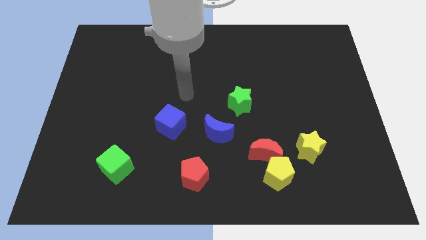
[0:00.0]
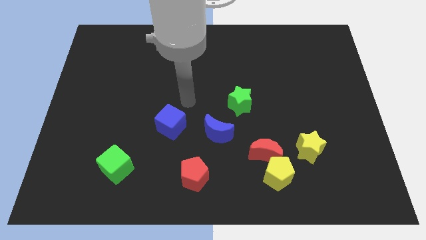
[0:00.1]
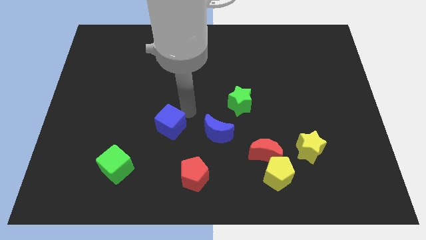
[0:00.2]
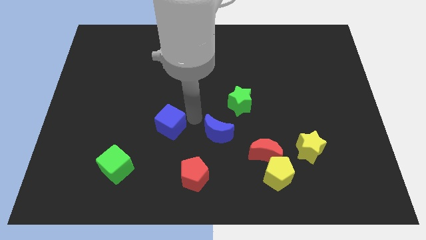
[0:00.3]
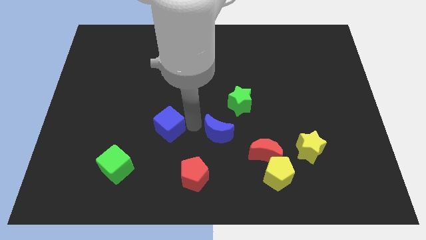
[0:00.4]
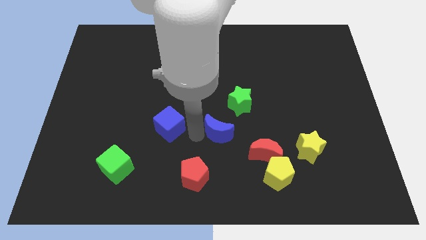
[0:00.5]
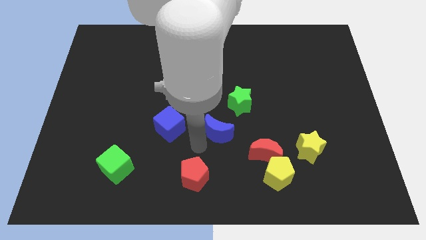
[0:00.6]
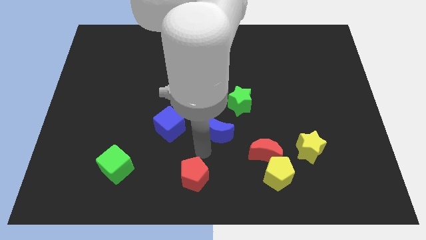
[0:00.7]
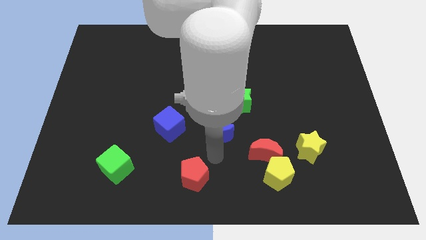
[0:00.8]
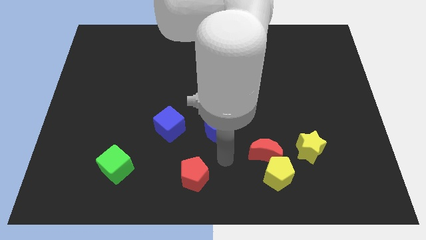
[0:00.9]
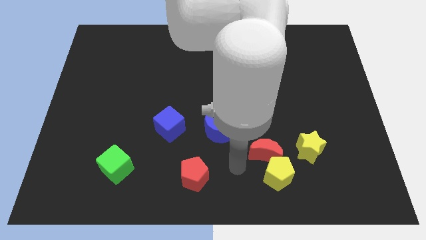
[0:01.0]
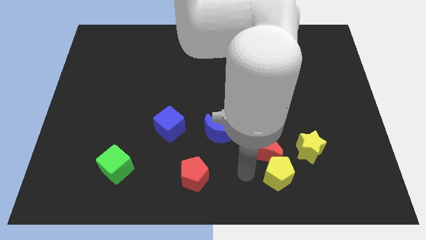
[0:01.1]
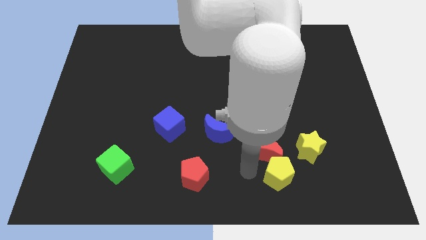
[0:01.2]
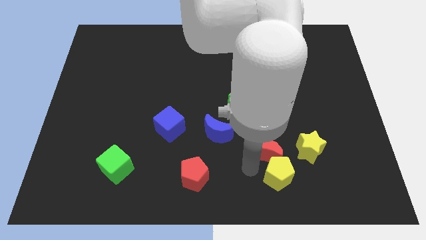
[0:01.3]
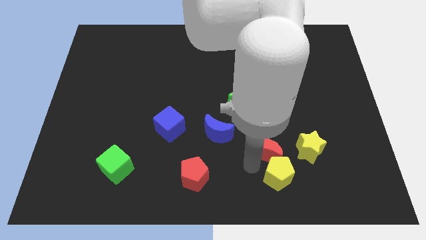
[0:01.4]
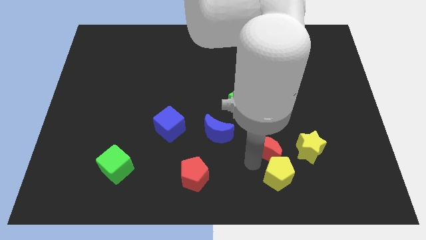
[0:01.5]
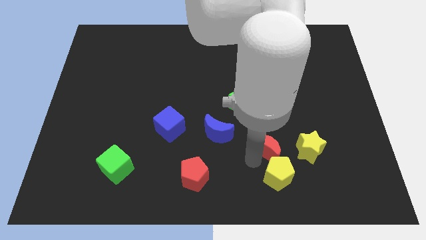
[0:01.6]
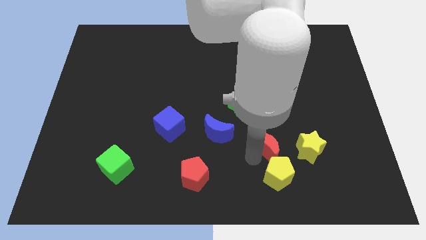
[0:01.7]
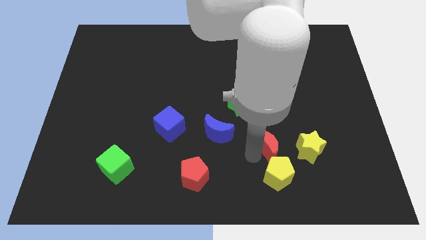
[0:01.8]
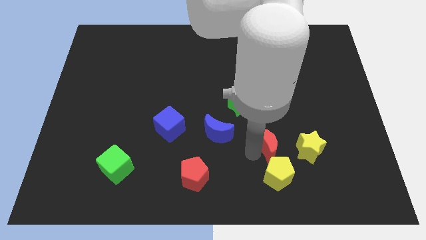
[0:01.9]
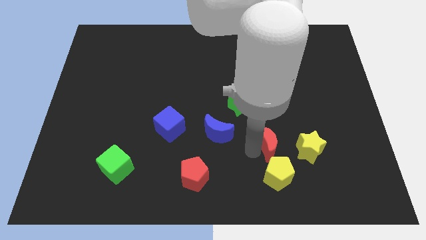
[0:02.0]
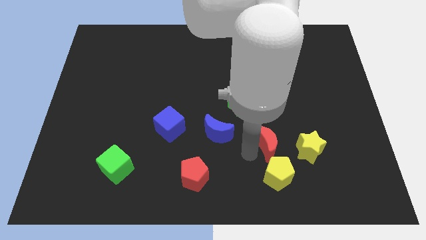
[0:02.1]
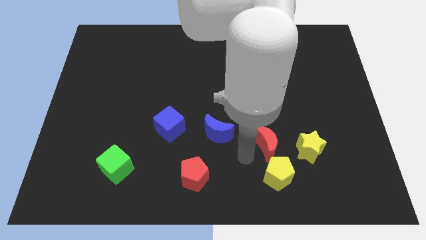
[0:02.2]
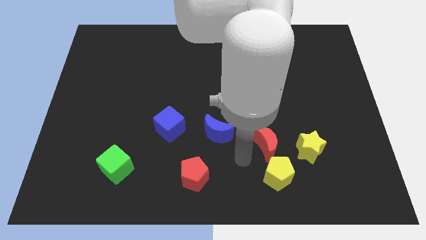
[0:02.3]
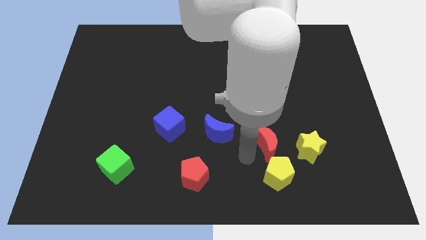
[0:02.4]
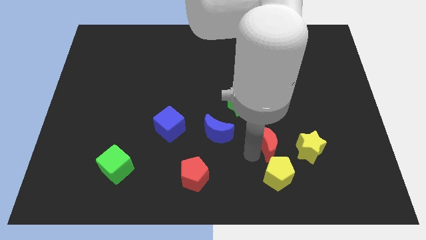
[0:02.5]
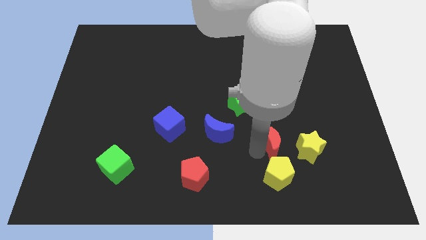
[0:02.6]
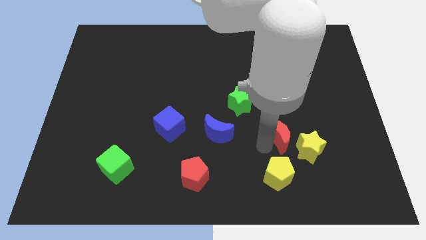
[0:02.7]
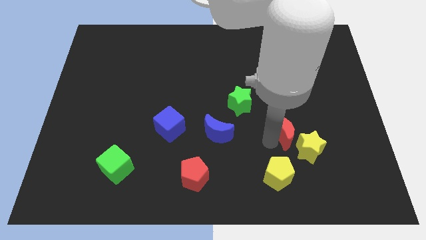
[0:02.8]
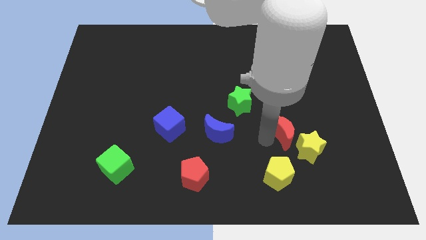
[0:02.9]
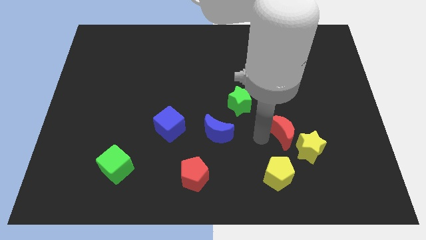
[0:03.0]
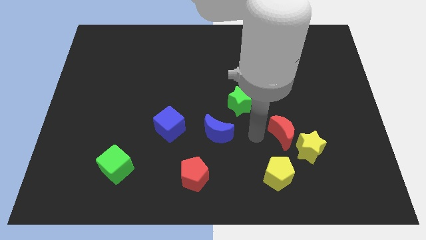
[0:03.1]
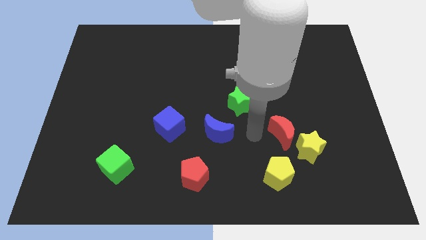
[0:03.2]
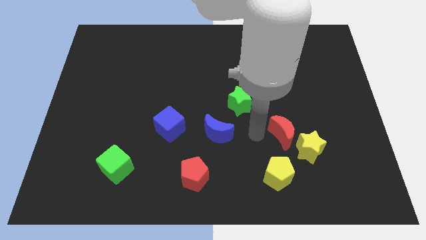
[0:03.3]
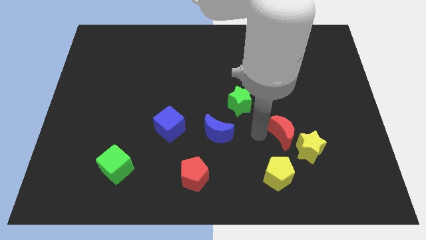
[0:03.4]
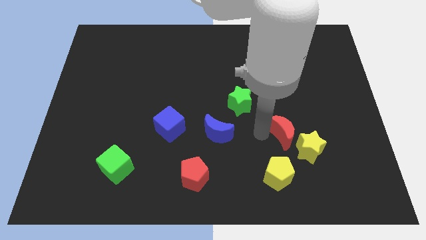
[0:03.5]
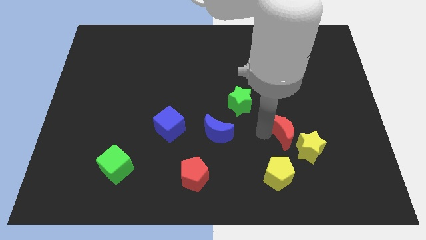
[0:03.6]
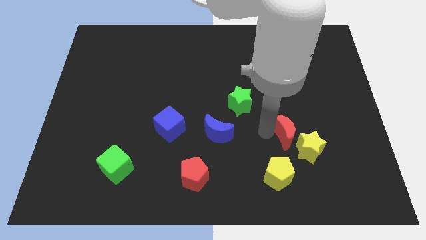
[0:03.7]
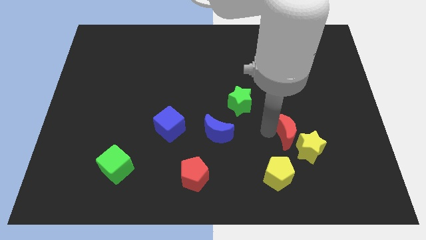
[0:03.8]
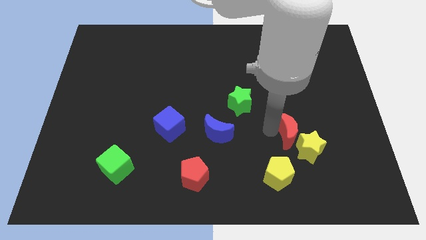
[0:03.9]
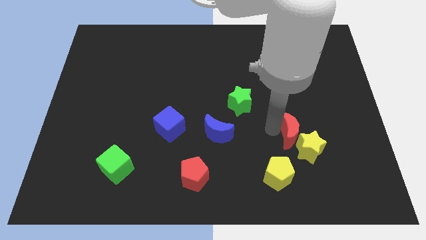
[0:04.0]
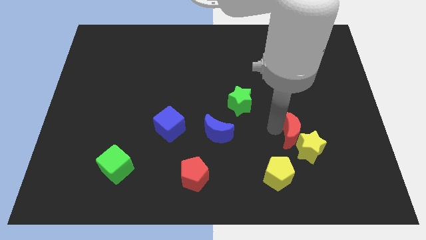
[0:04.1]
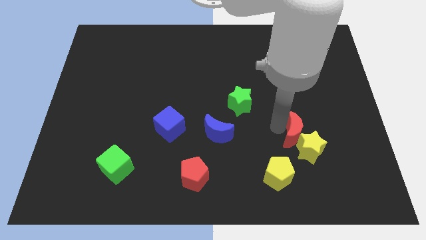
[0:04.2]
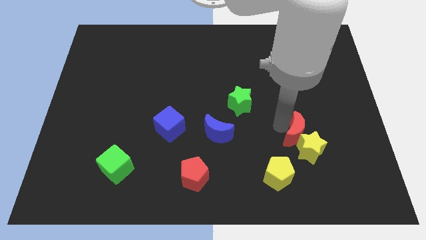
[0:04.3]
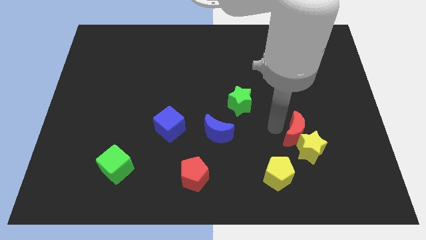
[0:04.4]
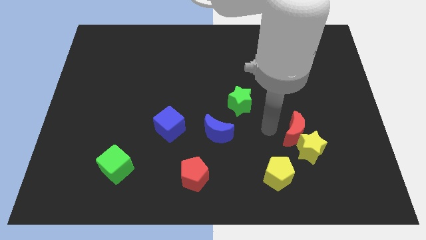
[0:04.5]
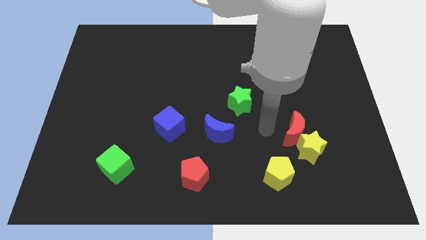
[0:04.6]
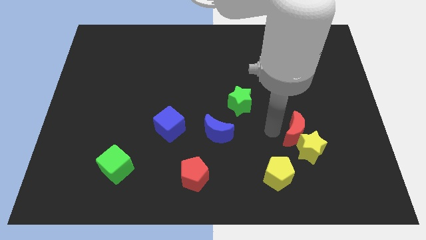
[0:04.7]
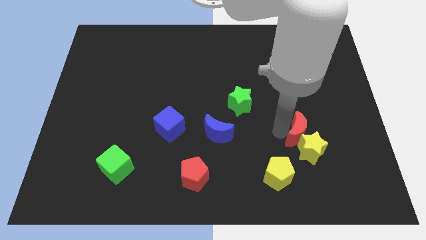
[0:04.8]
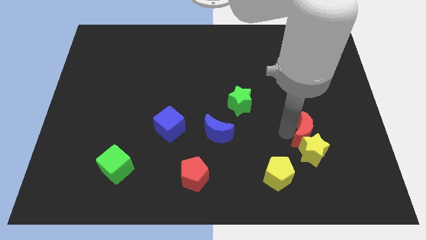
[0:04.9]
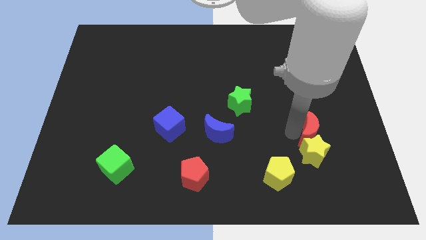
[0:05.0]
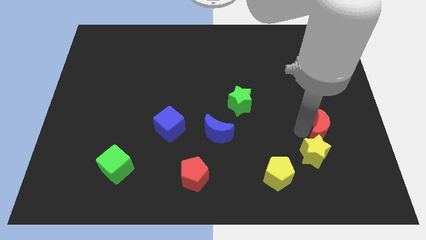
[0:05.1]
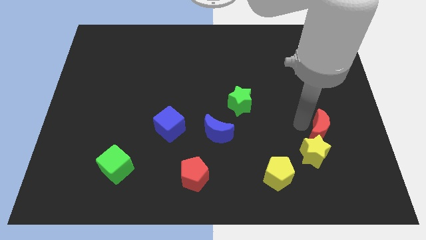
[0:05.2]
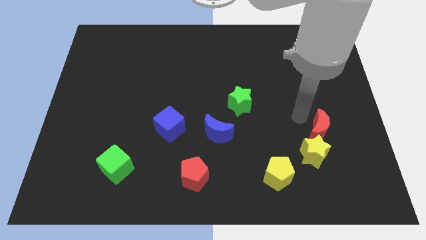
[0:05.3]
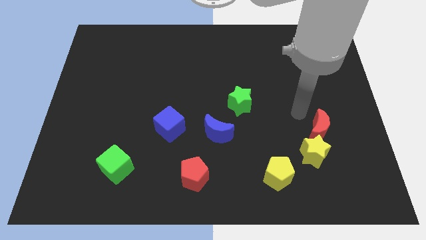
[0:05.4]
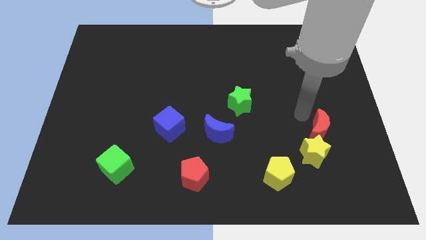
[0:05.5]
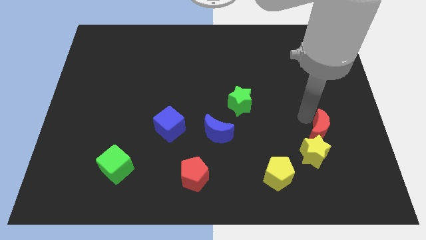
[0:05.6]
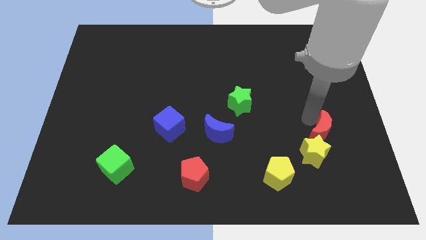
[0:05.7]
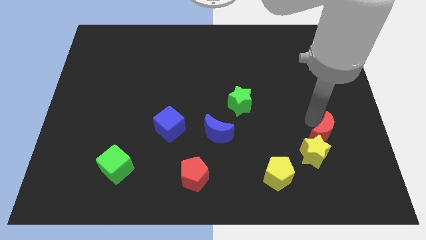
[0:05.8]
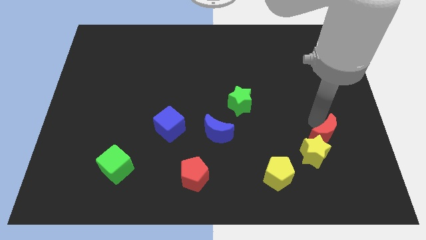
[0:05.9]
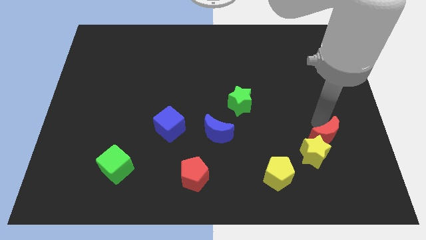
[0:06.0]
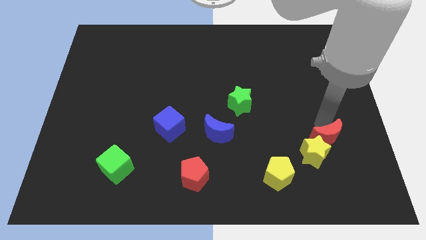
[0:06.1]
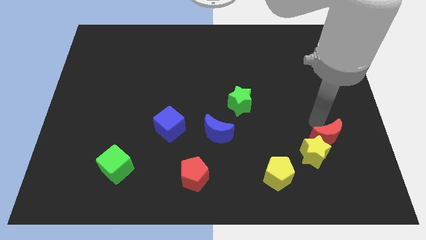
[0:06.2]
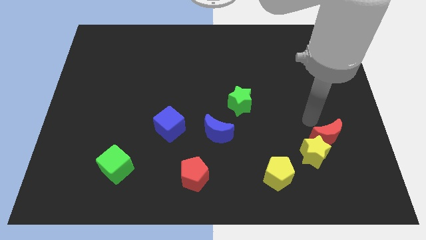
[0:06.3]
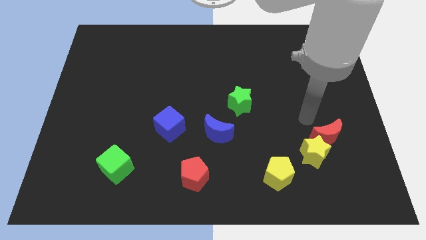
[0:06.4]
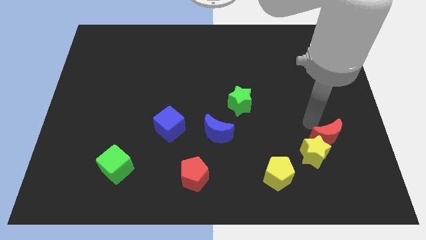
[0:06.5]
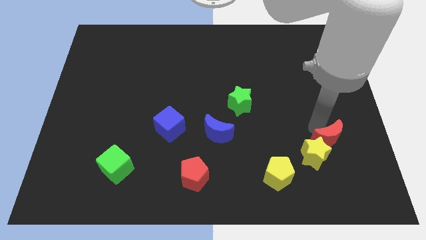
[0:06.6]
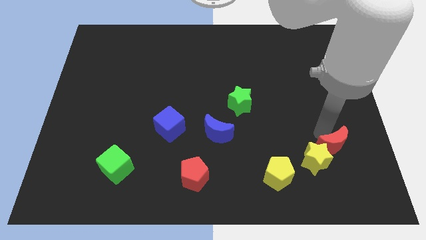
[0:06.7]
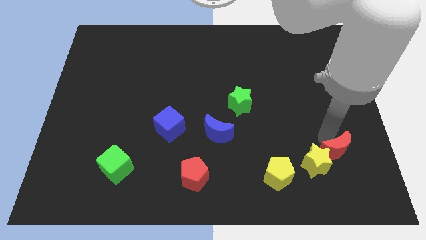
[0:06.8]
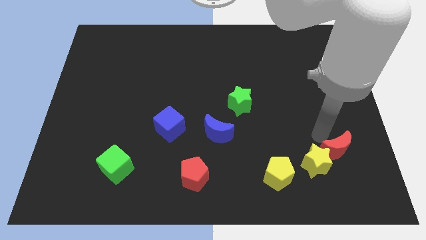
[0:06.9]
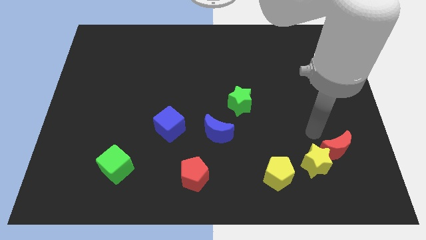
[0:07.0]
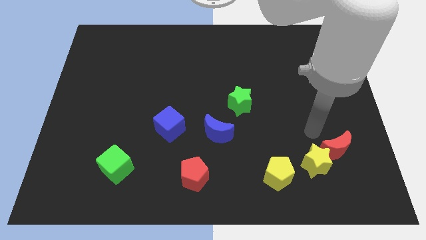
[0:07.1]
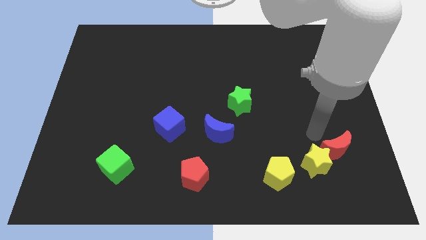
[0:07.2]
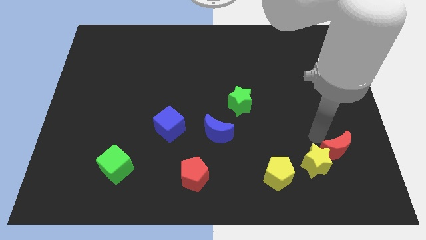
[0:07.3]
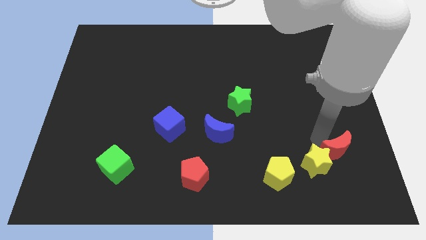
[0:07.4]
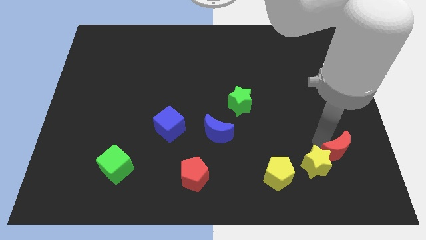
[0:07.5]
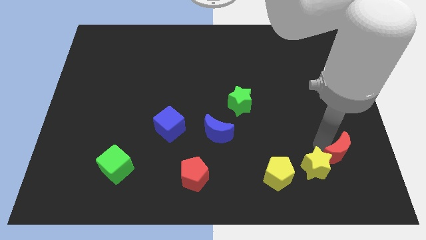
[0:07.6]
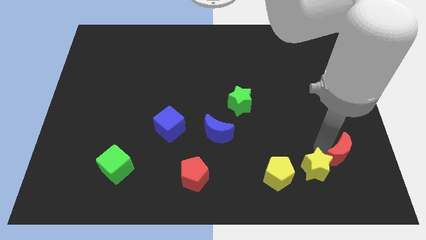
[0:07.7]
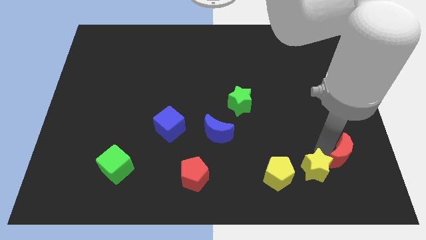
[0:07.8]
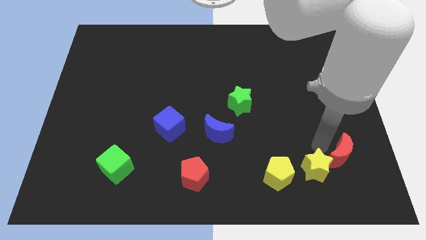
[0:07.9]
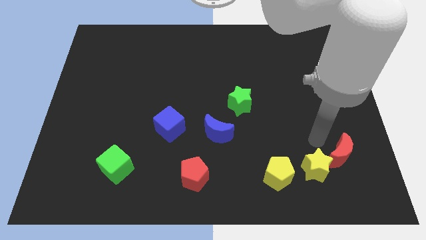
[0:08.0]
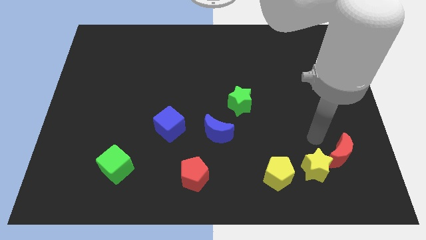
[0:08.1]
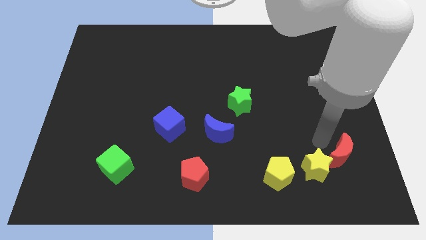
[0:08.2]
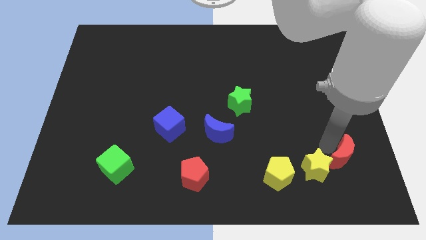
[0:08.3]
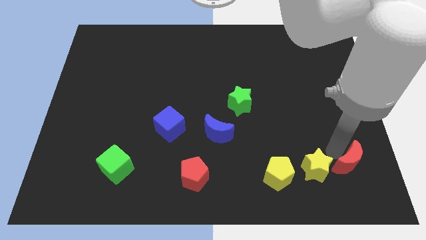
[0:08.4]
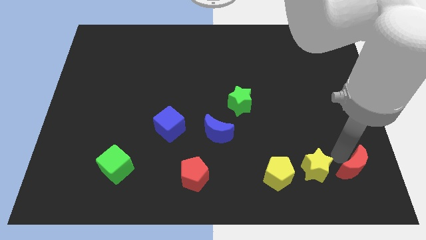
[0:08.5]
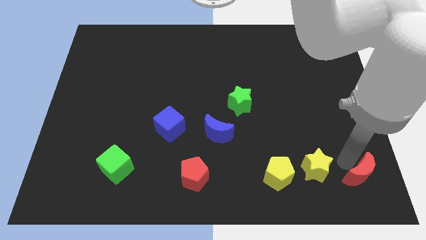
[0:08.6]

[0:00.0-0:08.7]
slide the red moon to the bottom right corner
